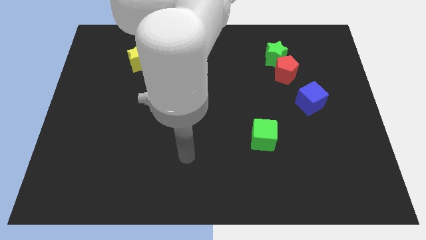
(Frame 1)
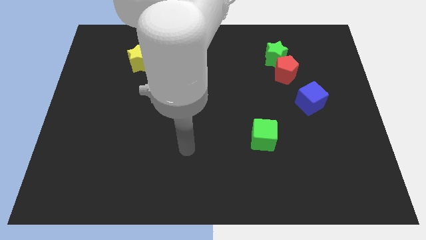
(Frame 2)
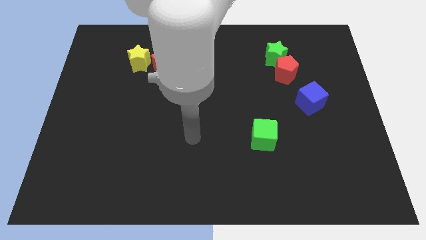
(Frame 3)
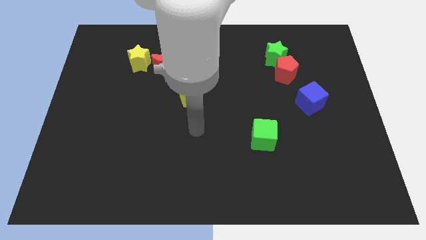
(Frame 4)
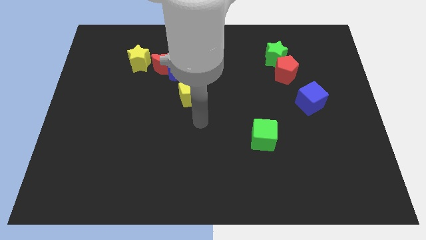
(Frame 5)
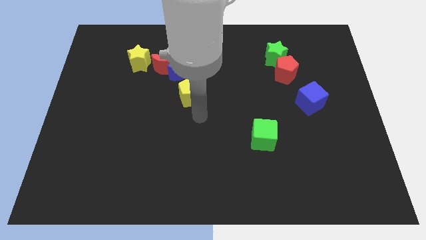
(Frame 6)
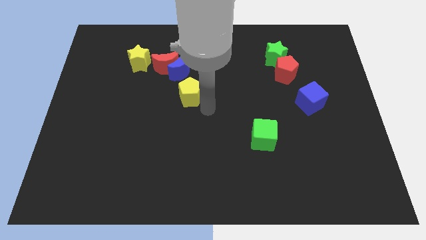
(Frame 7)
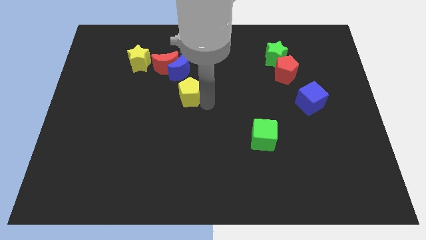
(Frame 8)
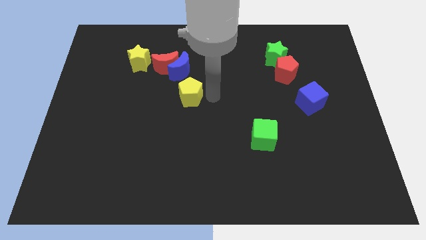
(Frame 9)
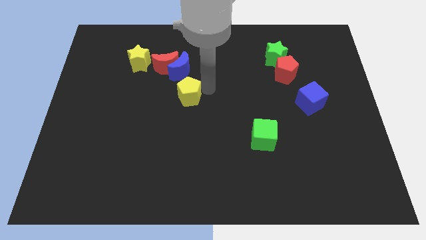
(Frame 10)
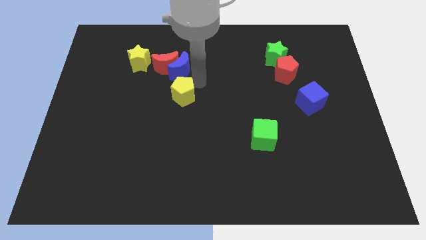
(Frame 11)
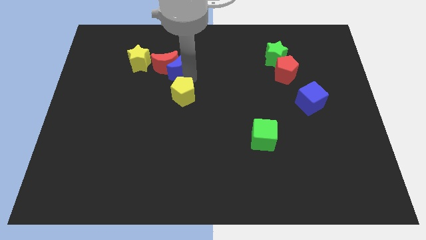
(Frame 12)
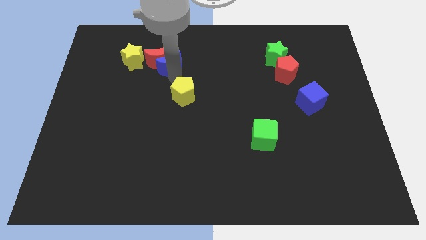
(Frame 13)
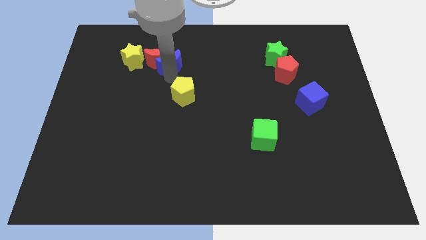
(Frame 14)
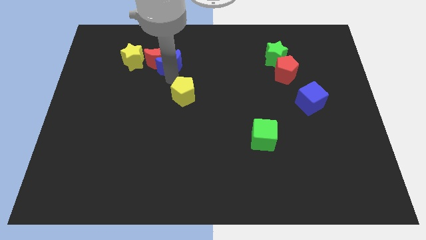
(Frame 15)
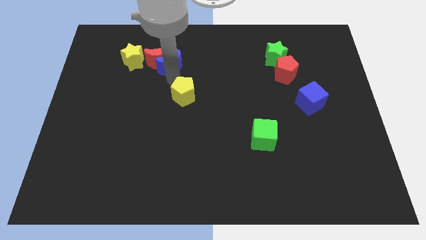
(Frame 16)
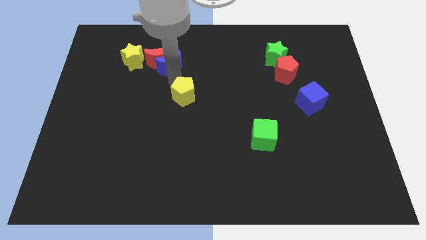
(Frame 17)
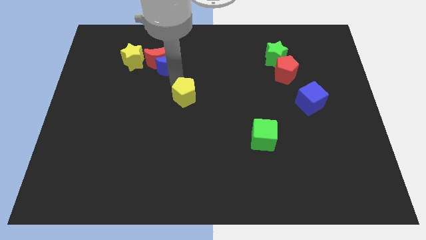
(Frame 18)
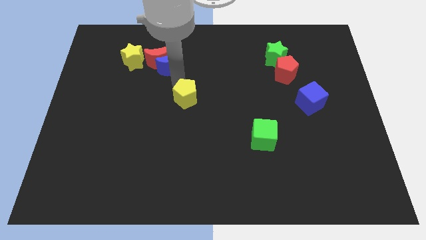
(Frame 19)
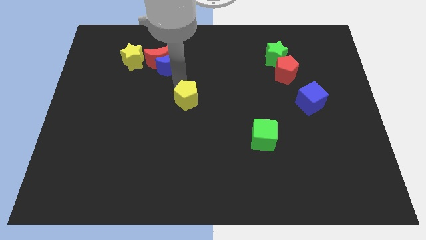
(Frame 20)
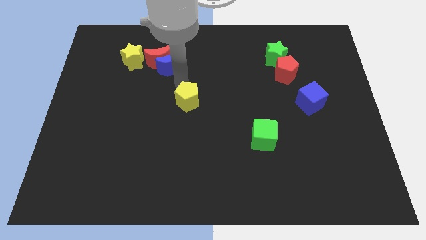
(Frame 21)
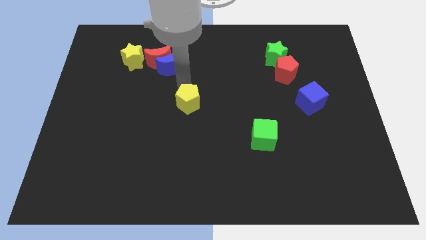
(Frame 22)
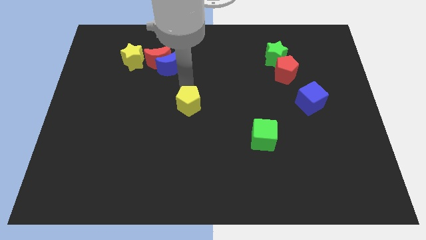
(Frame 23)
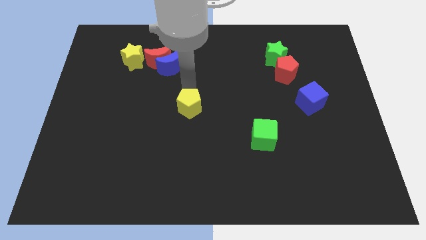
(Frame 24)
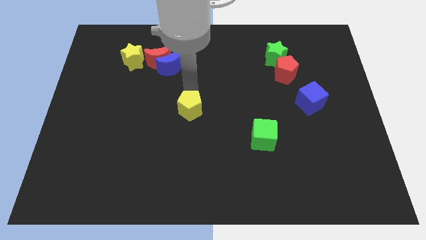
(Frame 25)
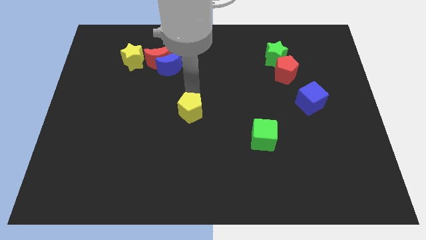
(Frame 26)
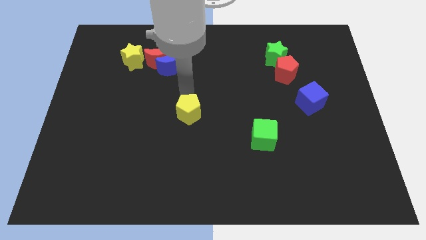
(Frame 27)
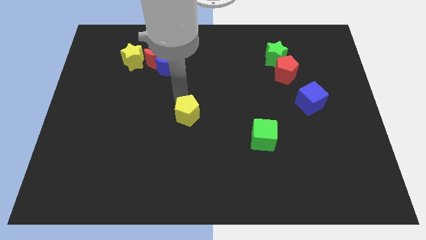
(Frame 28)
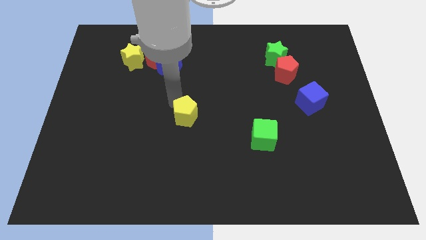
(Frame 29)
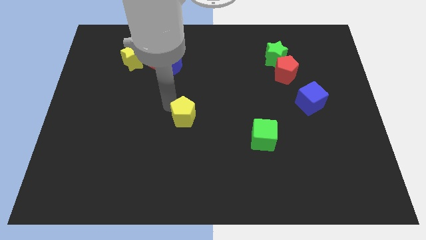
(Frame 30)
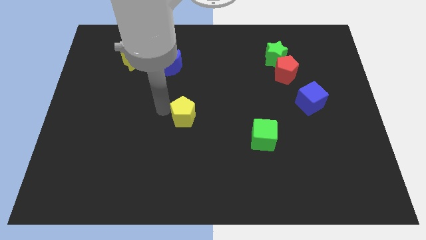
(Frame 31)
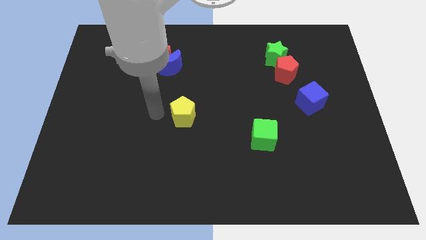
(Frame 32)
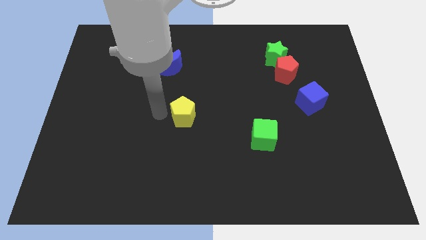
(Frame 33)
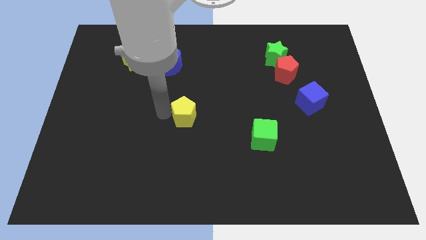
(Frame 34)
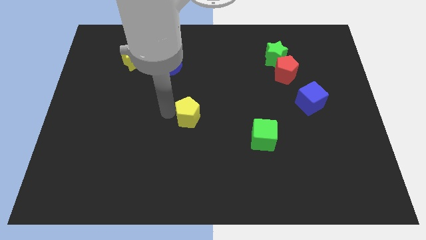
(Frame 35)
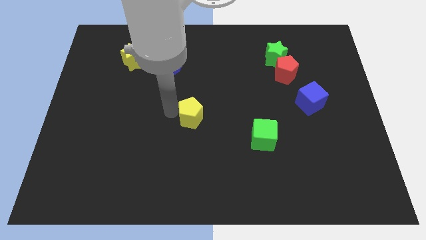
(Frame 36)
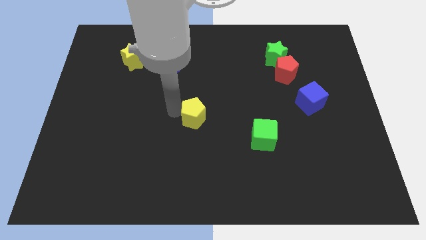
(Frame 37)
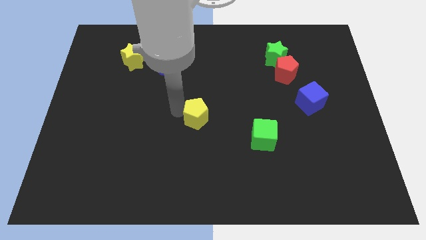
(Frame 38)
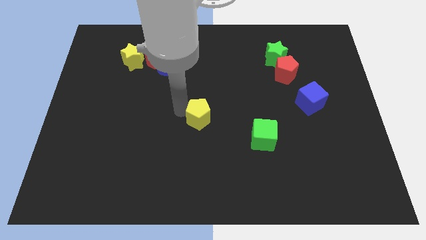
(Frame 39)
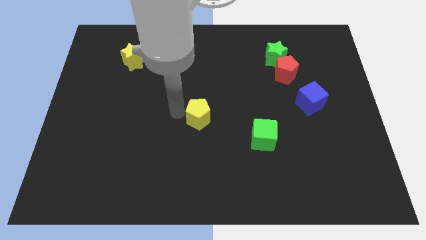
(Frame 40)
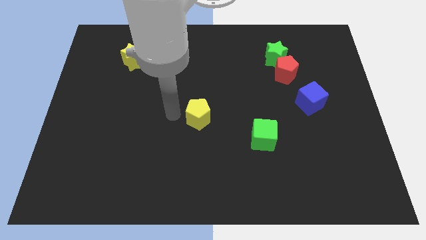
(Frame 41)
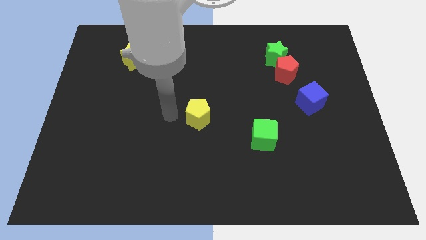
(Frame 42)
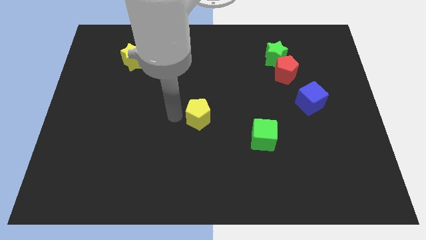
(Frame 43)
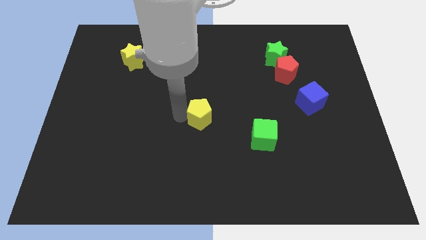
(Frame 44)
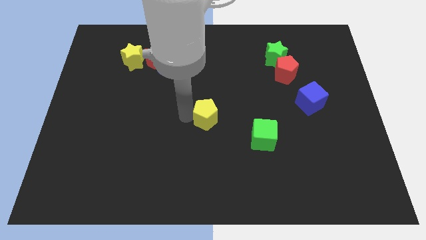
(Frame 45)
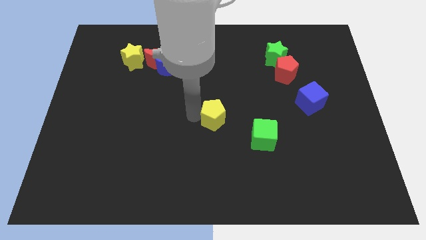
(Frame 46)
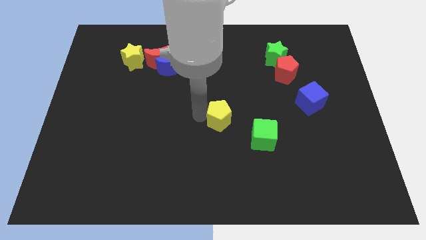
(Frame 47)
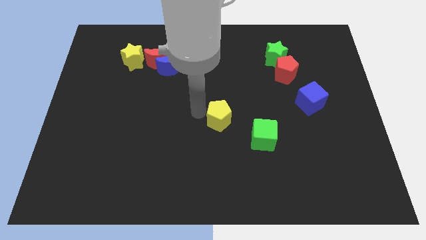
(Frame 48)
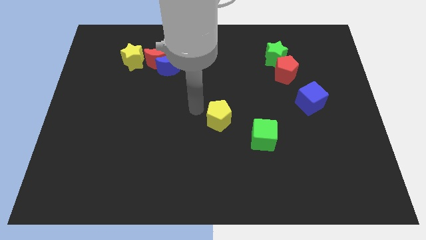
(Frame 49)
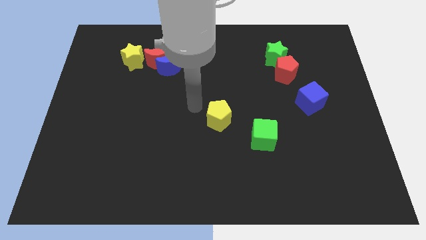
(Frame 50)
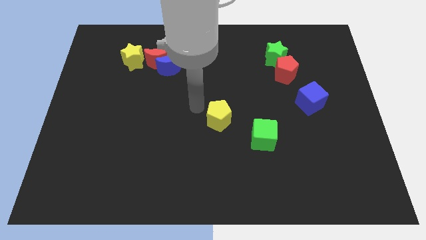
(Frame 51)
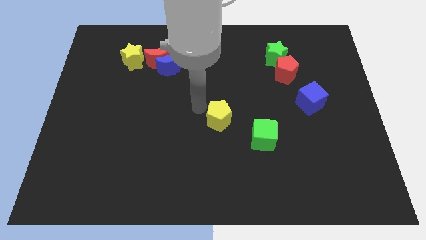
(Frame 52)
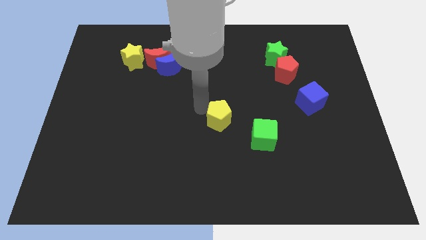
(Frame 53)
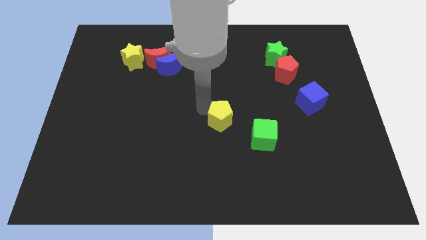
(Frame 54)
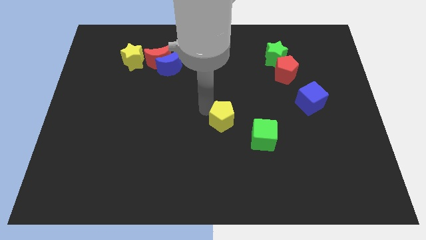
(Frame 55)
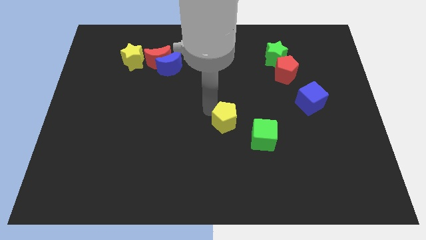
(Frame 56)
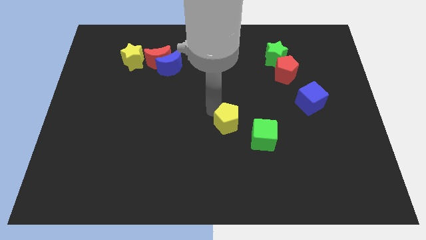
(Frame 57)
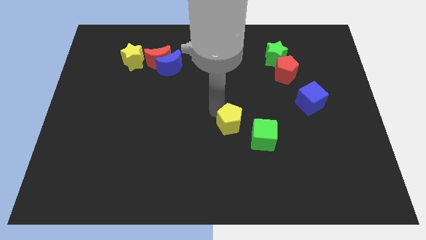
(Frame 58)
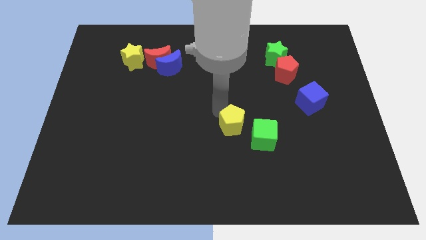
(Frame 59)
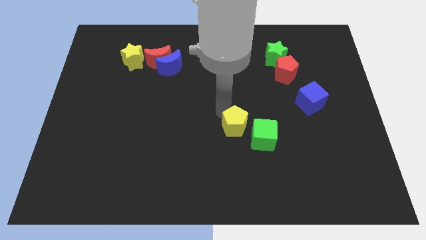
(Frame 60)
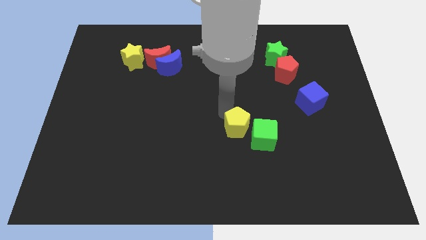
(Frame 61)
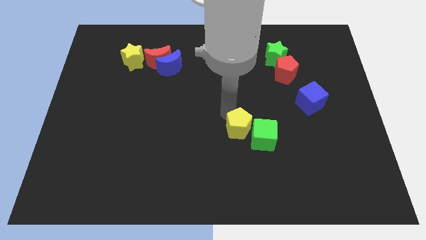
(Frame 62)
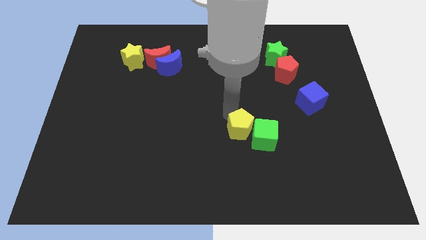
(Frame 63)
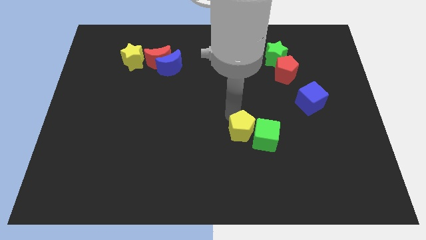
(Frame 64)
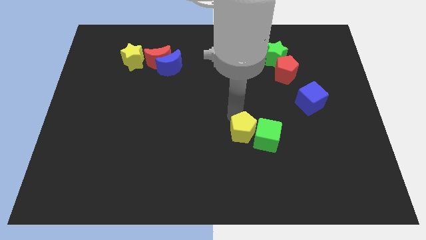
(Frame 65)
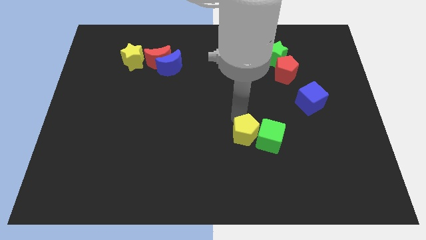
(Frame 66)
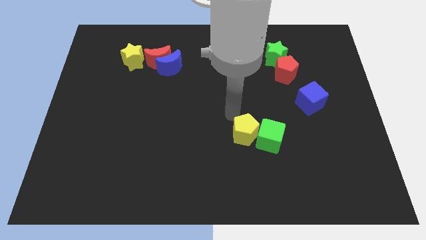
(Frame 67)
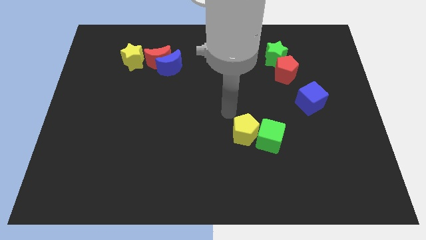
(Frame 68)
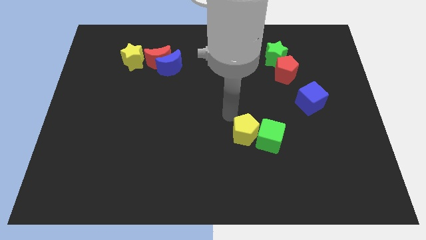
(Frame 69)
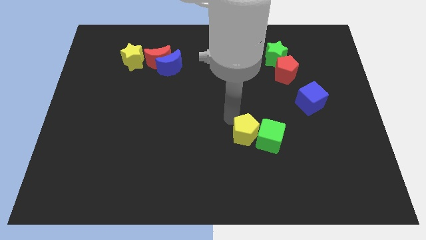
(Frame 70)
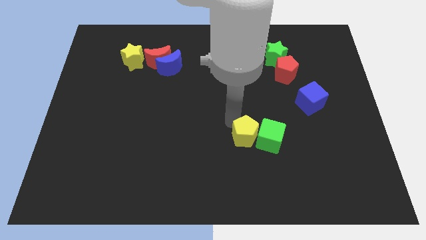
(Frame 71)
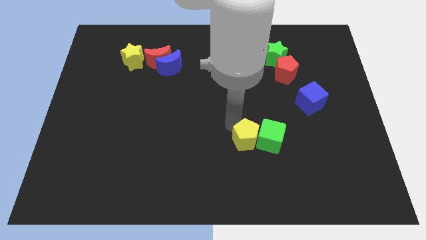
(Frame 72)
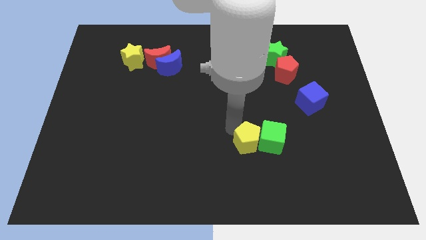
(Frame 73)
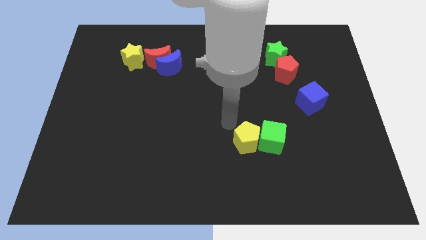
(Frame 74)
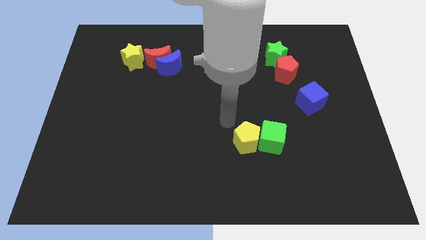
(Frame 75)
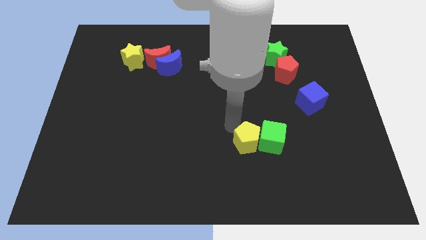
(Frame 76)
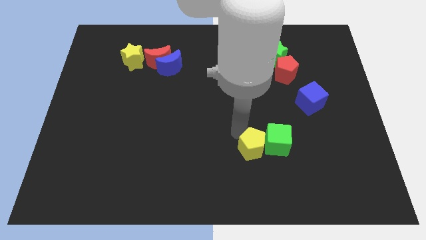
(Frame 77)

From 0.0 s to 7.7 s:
slide the yellow pentagon diagonally downwards and right

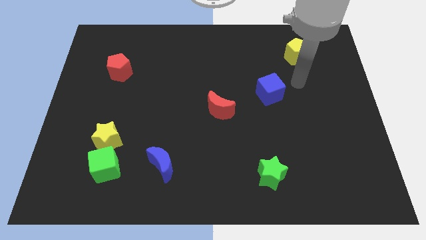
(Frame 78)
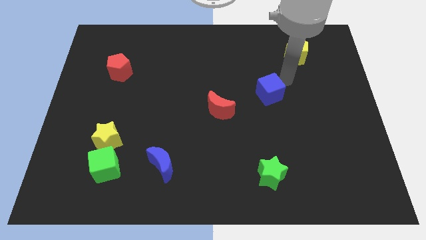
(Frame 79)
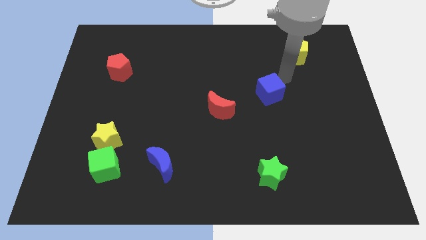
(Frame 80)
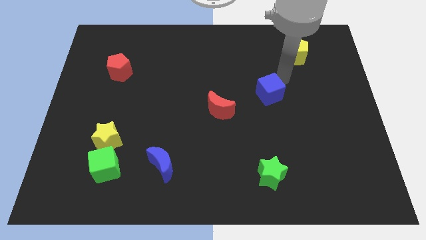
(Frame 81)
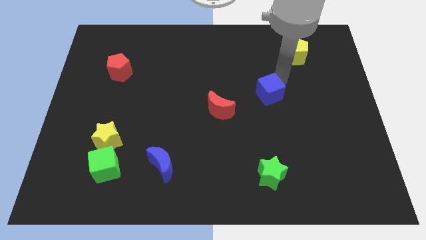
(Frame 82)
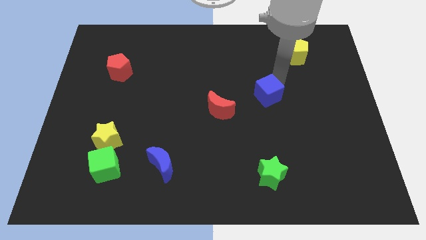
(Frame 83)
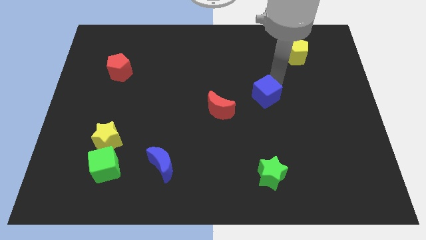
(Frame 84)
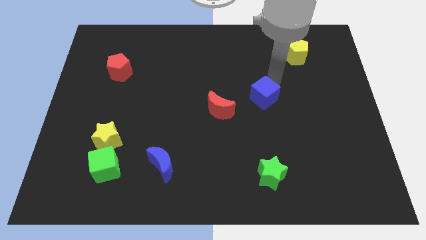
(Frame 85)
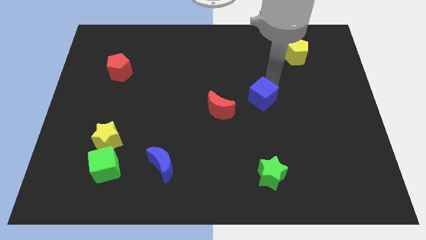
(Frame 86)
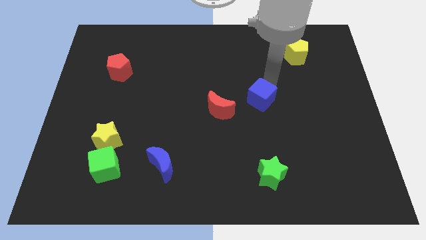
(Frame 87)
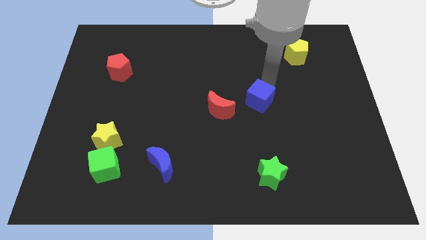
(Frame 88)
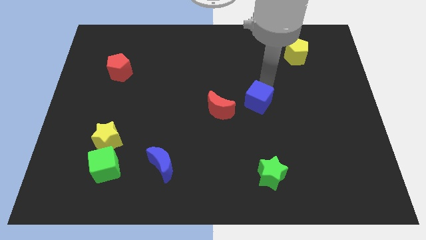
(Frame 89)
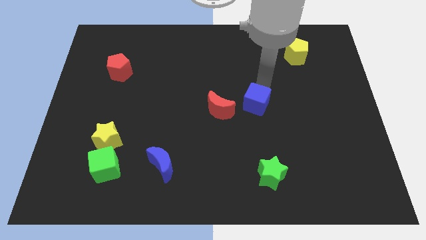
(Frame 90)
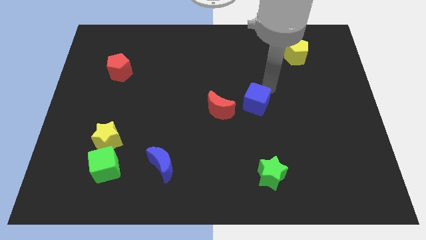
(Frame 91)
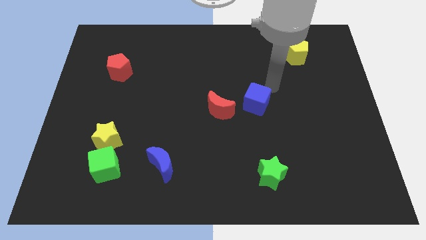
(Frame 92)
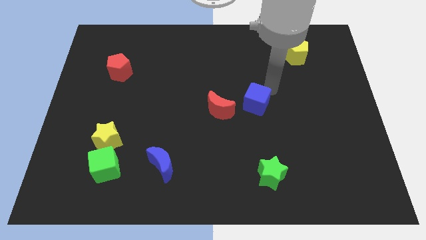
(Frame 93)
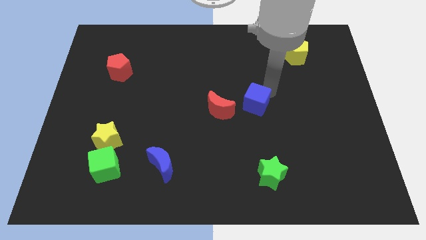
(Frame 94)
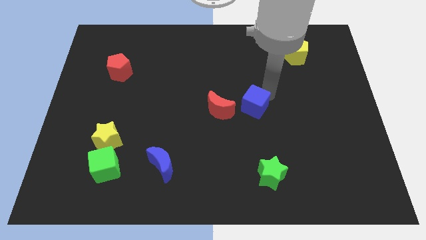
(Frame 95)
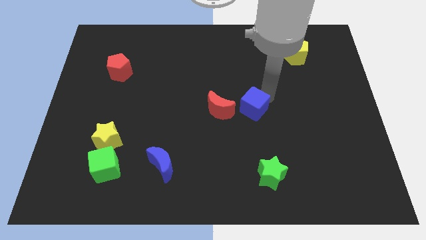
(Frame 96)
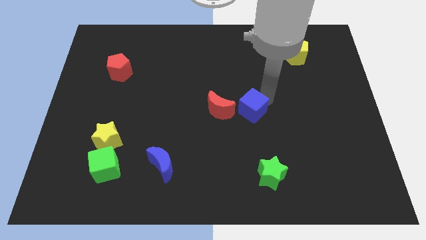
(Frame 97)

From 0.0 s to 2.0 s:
slide the blue cube diagonally downwards and left a little bit
